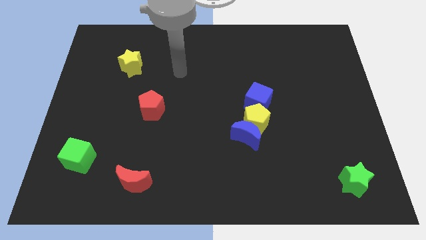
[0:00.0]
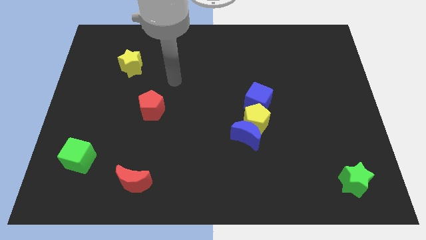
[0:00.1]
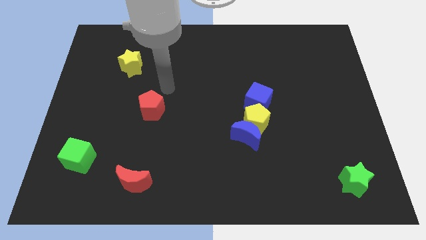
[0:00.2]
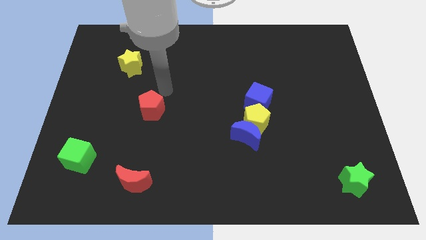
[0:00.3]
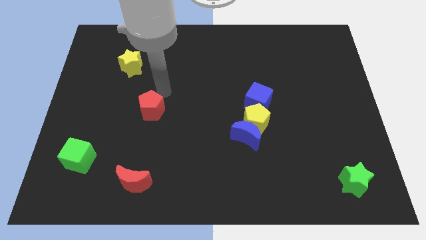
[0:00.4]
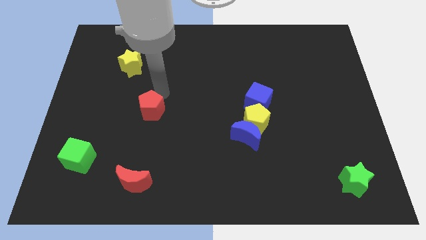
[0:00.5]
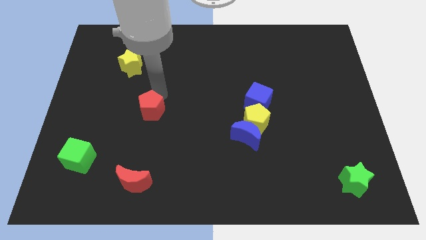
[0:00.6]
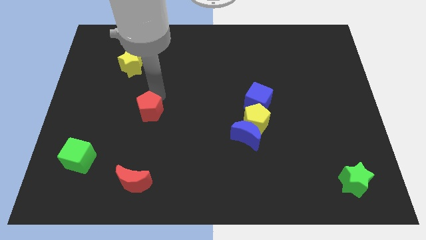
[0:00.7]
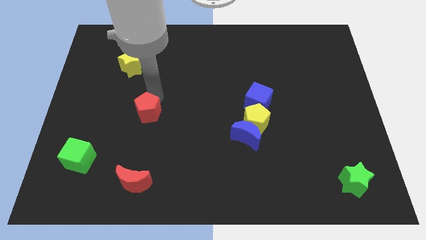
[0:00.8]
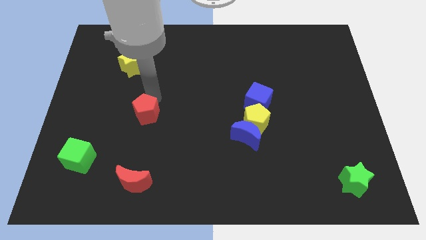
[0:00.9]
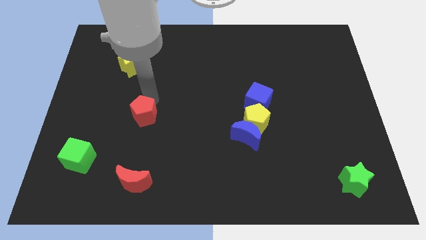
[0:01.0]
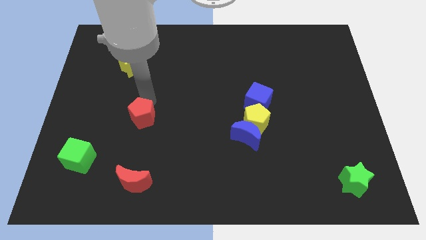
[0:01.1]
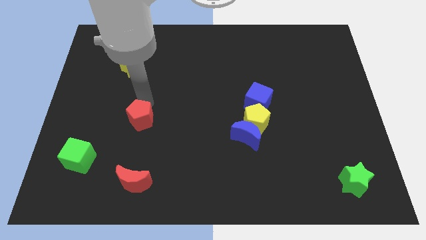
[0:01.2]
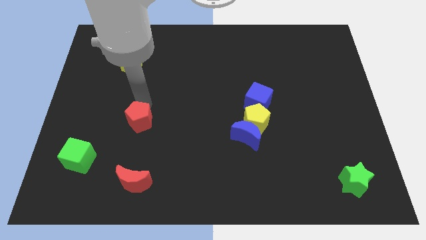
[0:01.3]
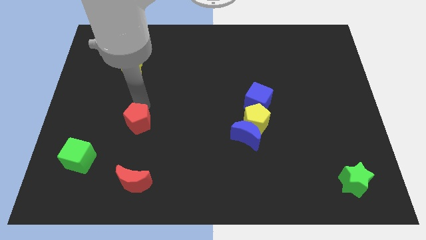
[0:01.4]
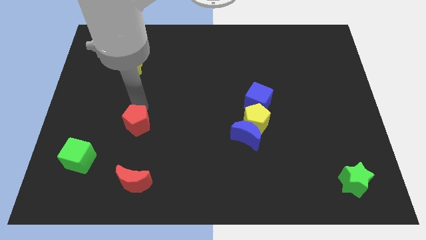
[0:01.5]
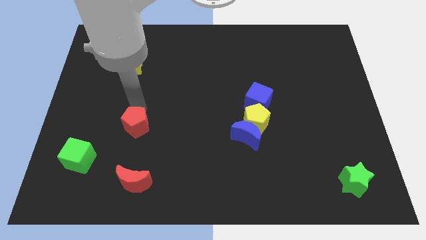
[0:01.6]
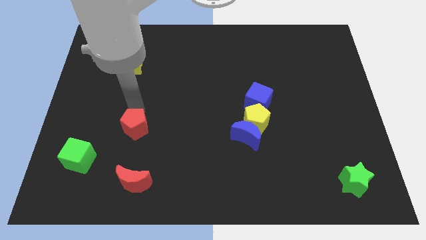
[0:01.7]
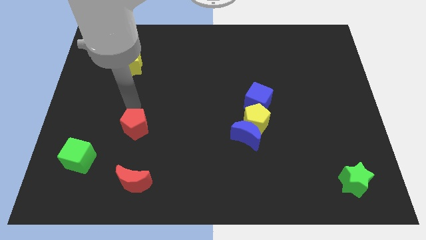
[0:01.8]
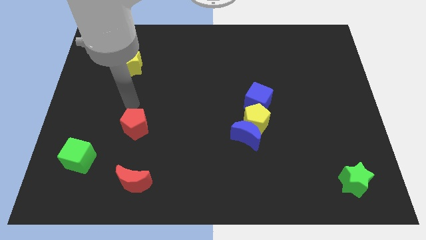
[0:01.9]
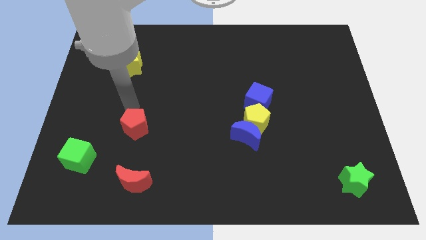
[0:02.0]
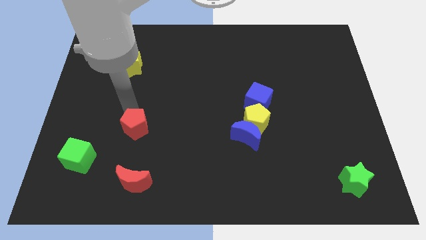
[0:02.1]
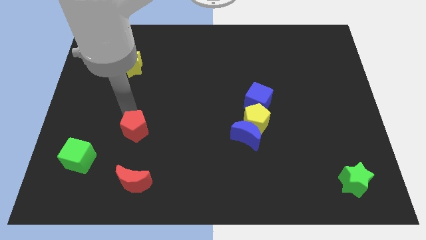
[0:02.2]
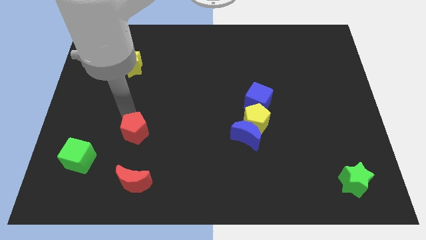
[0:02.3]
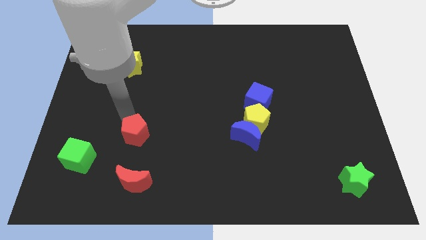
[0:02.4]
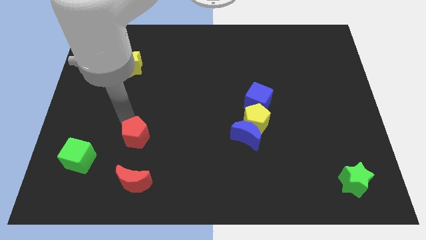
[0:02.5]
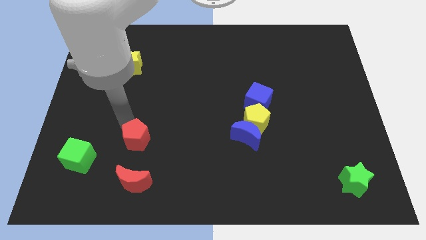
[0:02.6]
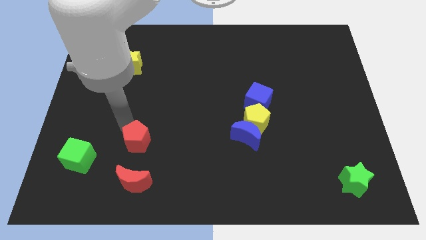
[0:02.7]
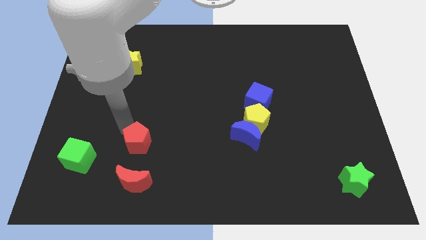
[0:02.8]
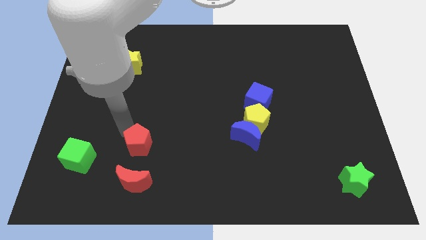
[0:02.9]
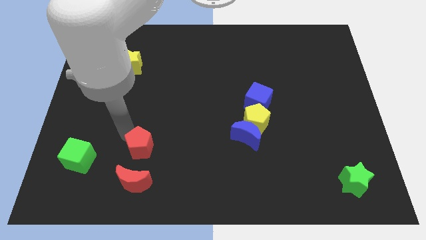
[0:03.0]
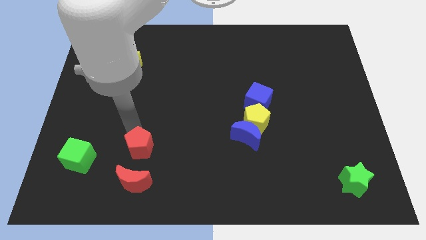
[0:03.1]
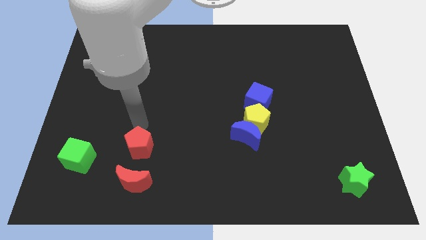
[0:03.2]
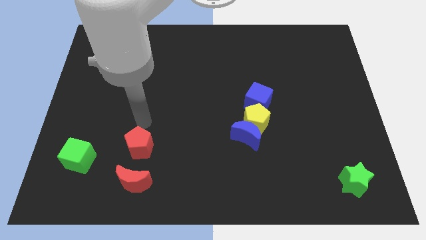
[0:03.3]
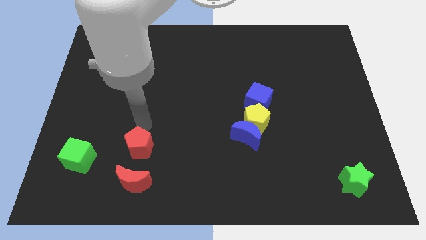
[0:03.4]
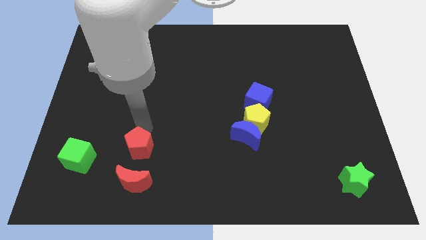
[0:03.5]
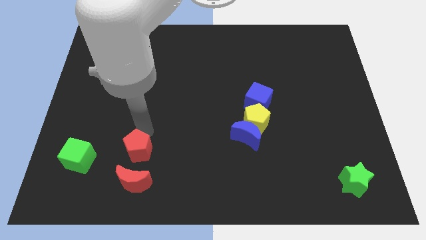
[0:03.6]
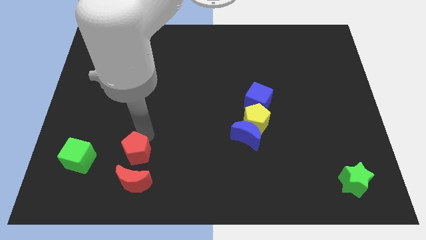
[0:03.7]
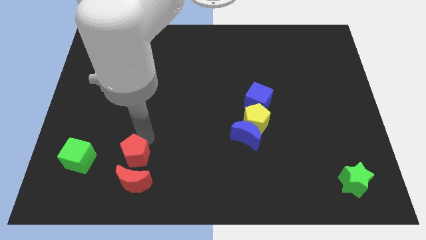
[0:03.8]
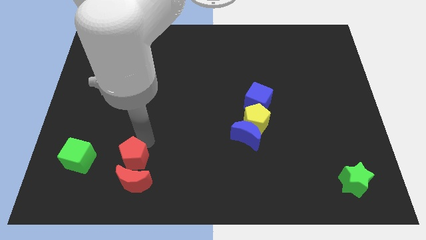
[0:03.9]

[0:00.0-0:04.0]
move the red pentagon close to the red moon

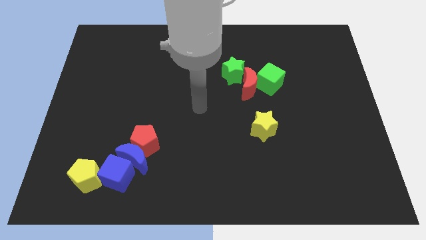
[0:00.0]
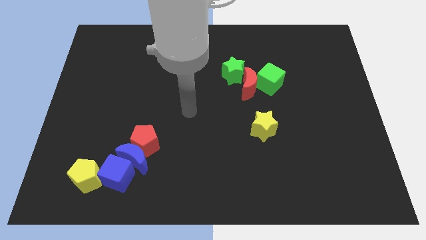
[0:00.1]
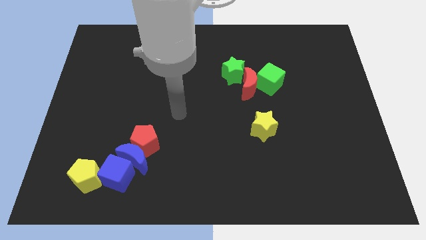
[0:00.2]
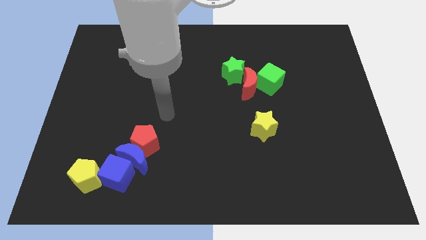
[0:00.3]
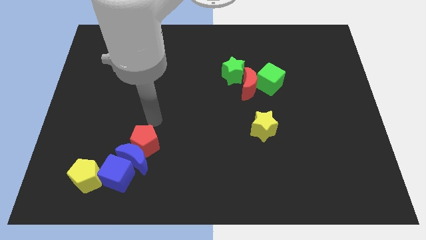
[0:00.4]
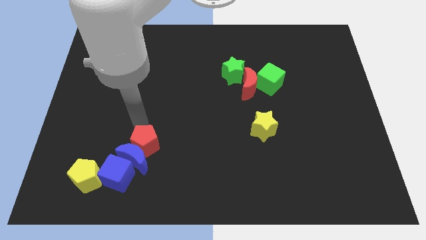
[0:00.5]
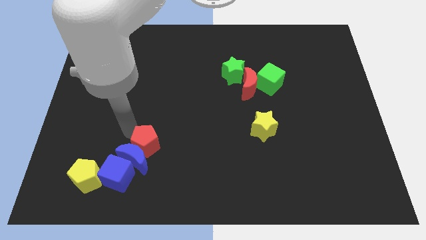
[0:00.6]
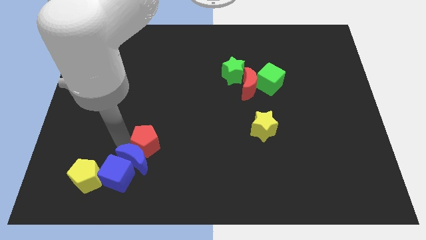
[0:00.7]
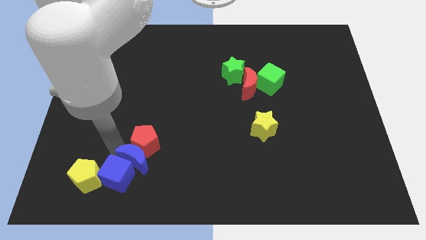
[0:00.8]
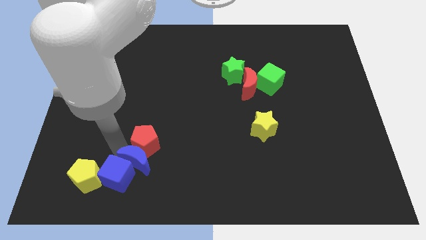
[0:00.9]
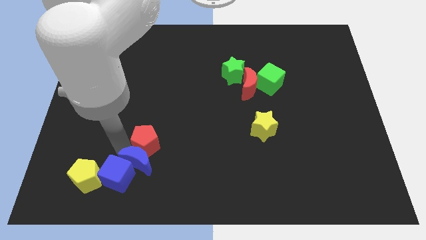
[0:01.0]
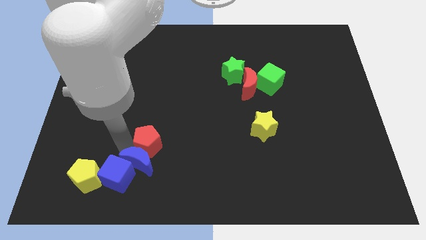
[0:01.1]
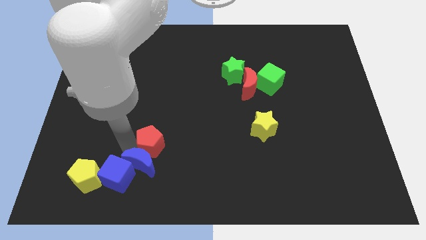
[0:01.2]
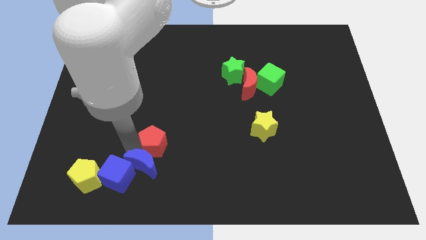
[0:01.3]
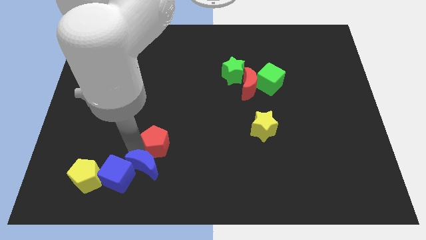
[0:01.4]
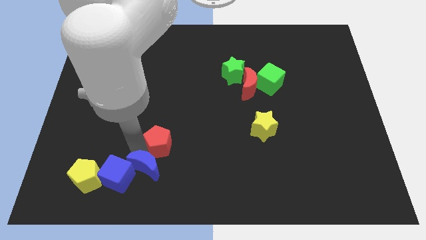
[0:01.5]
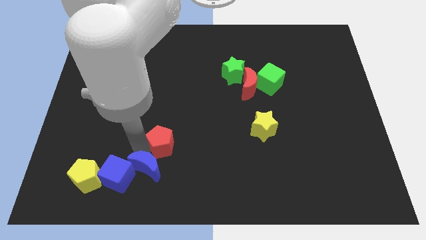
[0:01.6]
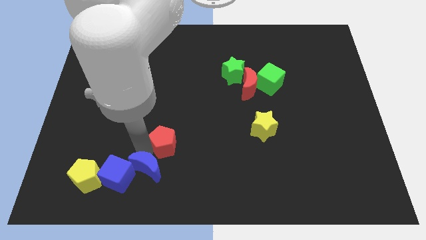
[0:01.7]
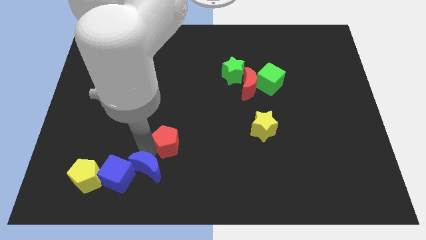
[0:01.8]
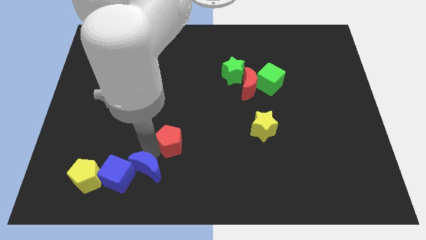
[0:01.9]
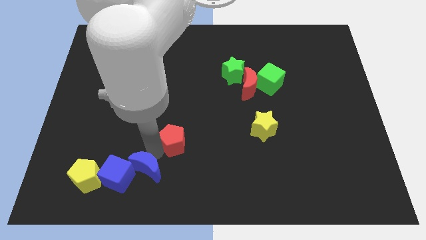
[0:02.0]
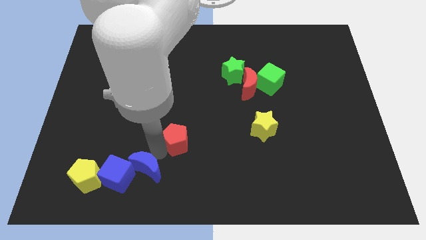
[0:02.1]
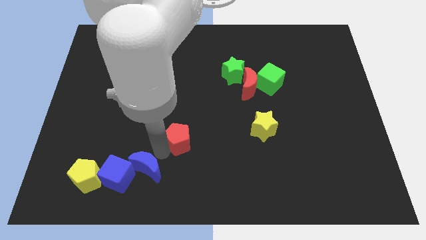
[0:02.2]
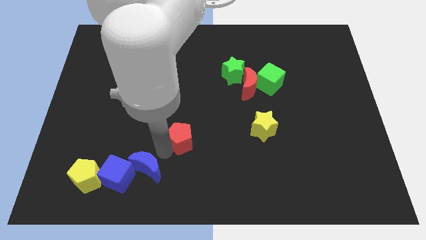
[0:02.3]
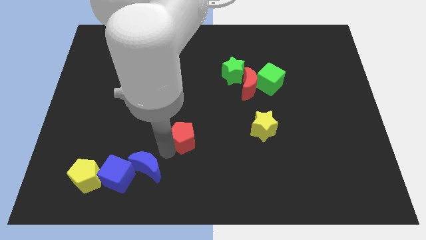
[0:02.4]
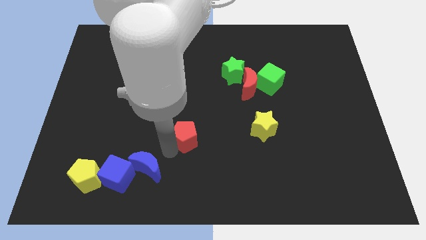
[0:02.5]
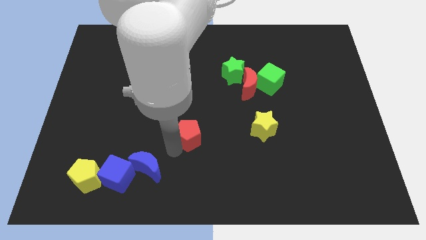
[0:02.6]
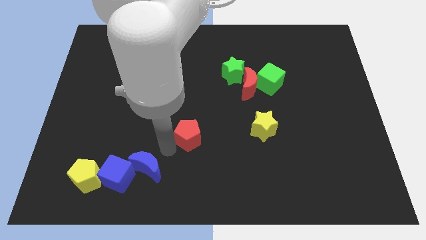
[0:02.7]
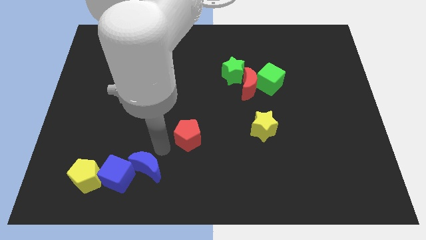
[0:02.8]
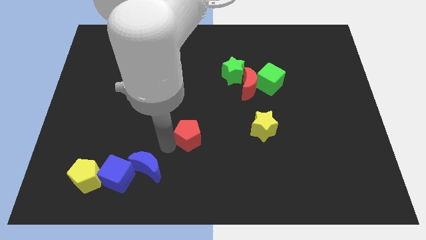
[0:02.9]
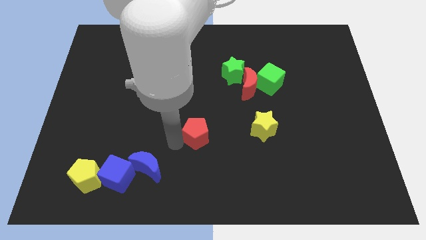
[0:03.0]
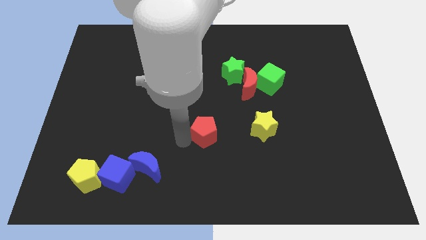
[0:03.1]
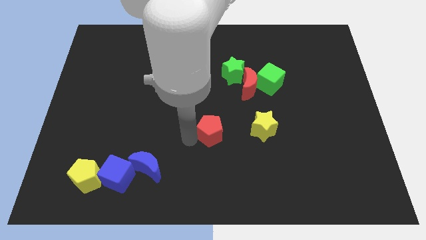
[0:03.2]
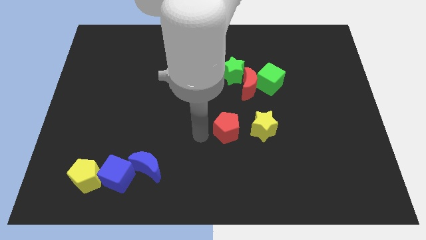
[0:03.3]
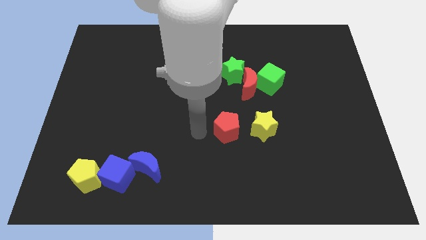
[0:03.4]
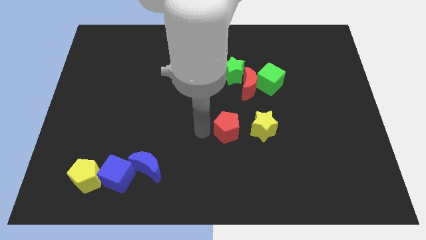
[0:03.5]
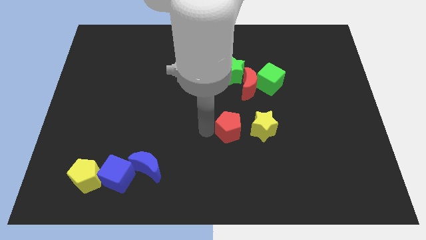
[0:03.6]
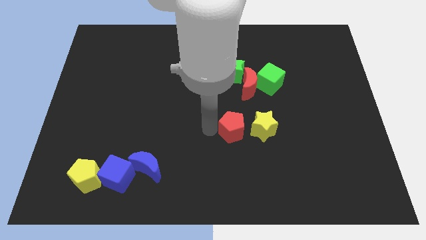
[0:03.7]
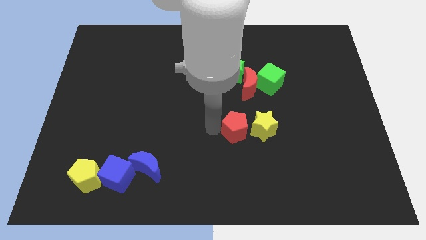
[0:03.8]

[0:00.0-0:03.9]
put the red pentagon to the yellow star
